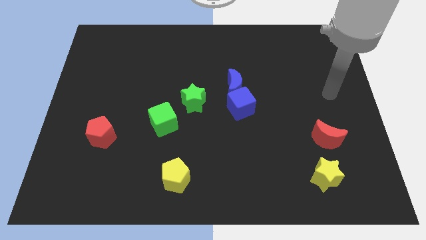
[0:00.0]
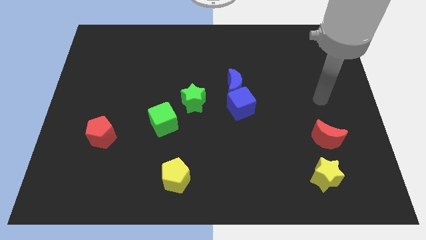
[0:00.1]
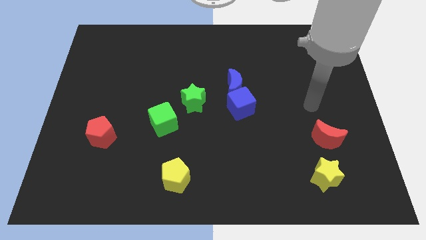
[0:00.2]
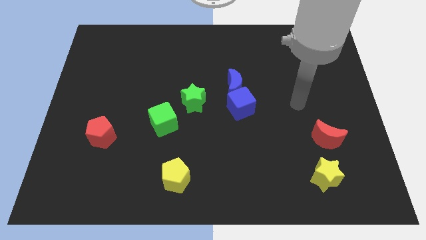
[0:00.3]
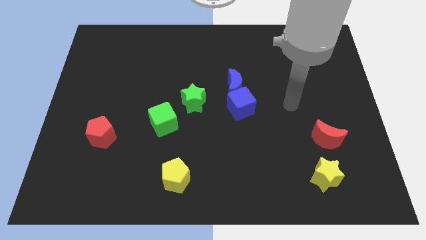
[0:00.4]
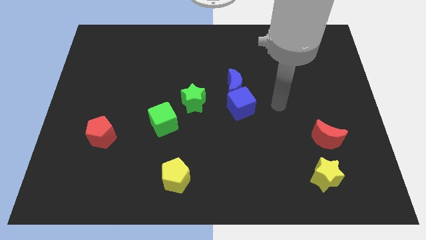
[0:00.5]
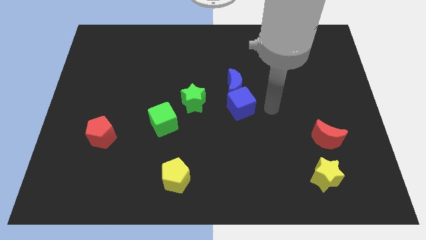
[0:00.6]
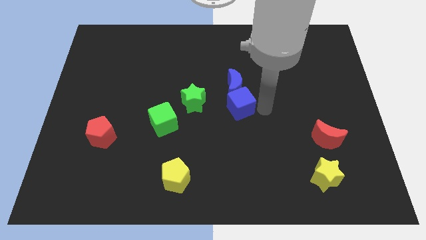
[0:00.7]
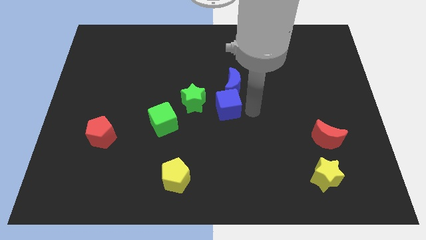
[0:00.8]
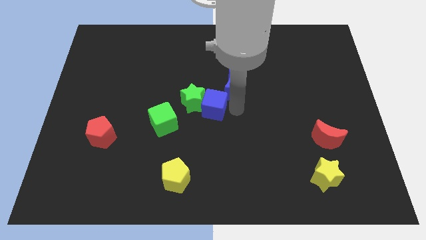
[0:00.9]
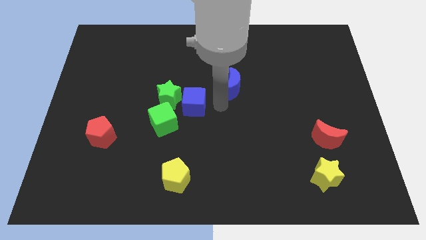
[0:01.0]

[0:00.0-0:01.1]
pull the blue moon apart from the blue cube

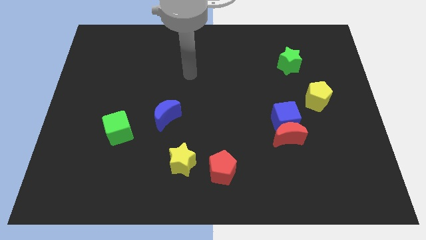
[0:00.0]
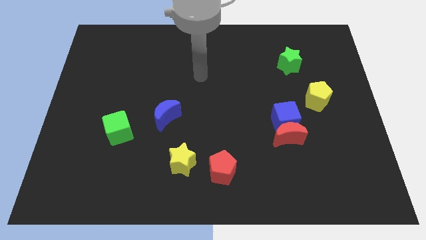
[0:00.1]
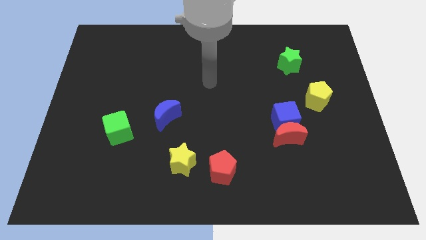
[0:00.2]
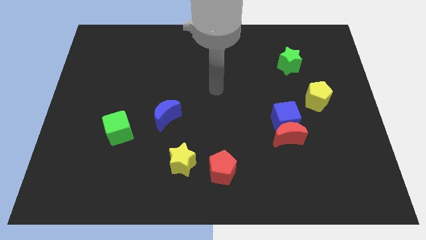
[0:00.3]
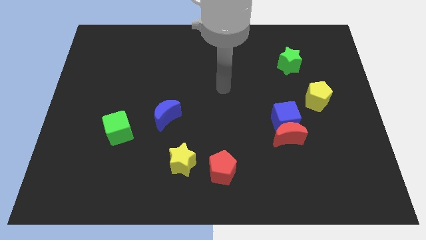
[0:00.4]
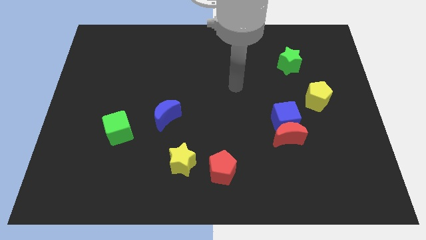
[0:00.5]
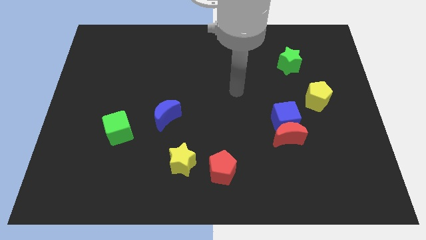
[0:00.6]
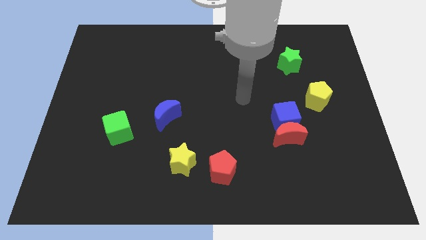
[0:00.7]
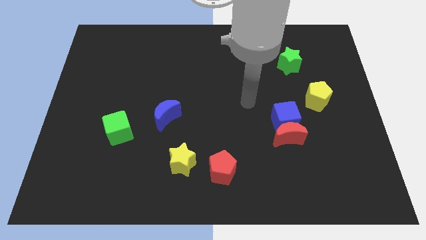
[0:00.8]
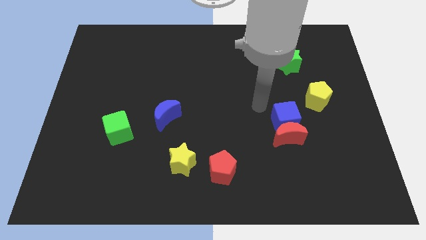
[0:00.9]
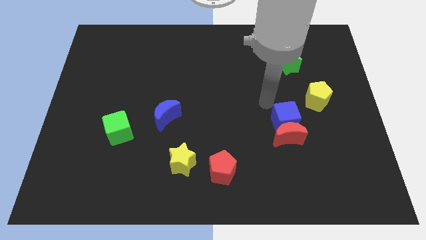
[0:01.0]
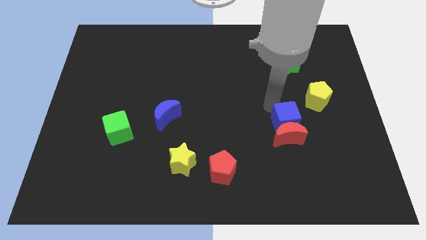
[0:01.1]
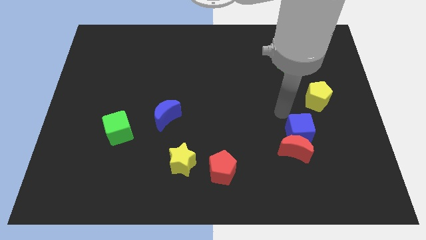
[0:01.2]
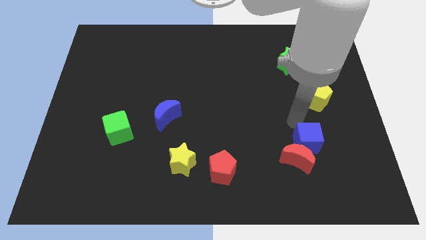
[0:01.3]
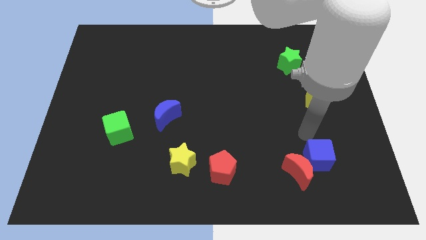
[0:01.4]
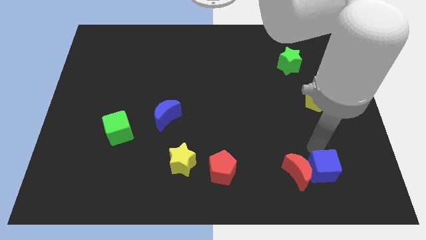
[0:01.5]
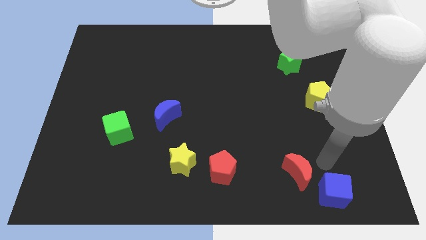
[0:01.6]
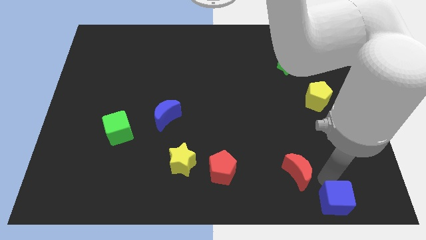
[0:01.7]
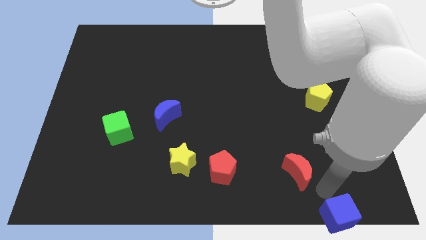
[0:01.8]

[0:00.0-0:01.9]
pull the red moon apart from the blue cube

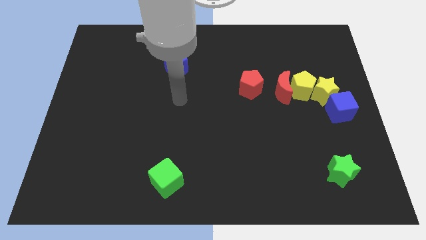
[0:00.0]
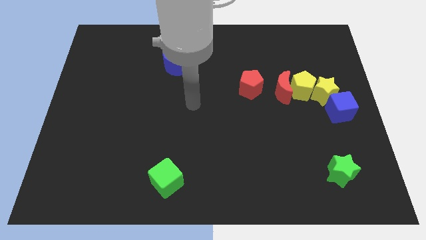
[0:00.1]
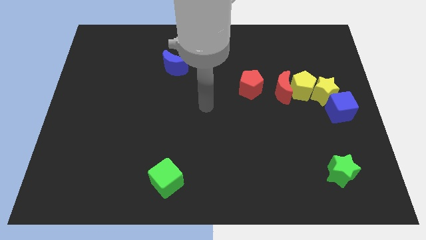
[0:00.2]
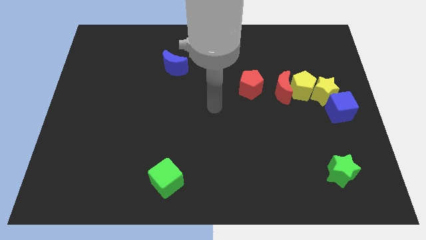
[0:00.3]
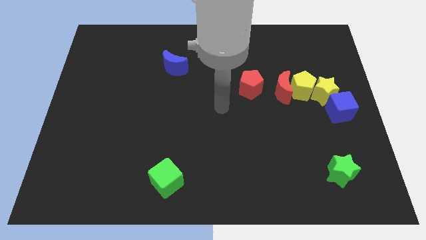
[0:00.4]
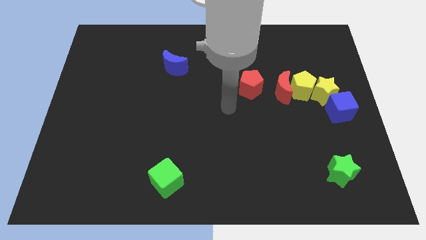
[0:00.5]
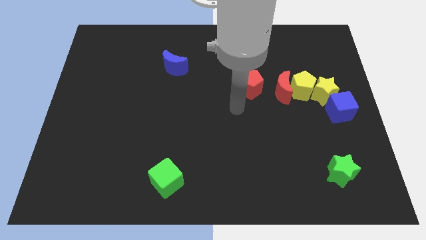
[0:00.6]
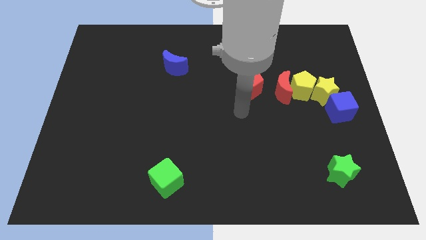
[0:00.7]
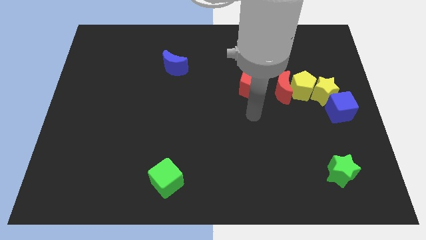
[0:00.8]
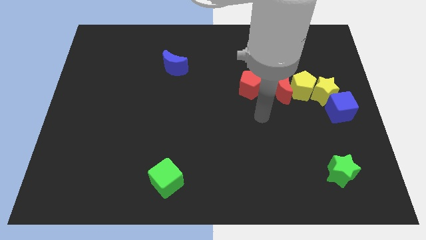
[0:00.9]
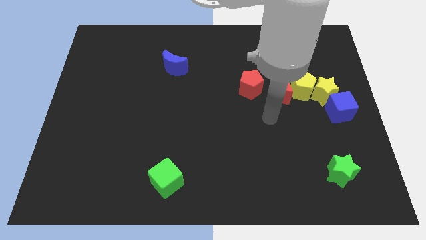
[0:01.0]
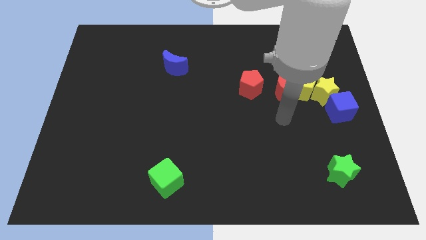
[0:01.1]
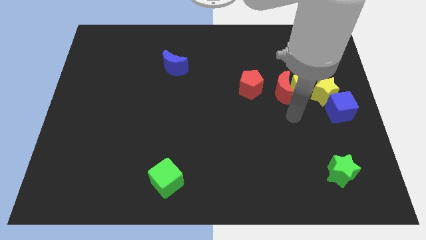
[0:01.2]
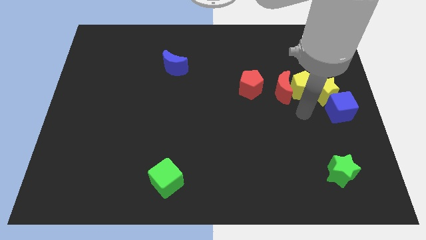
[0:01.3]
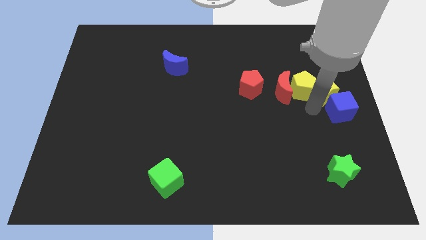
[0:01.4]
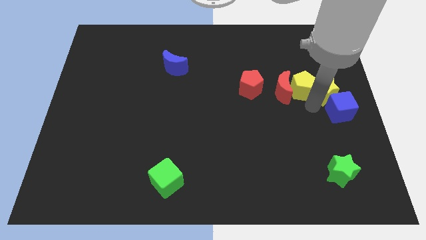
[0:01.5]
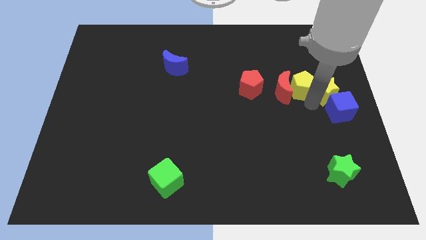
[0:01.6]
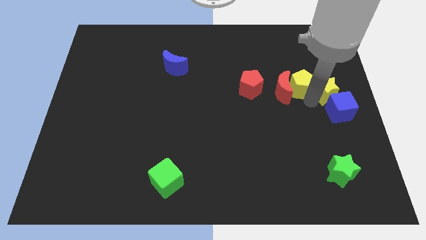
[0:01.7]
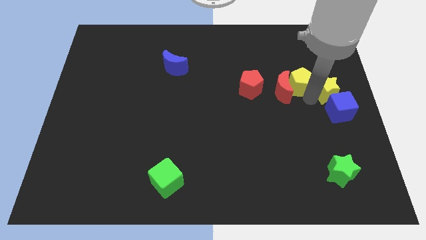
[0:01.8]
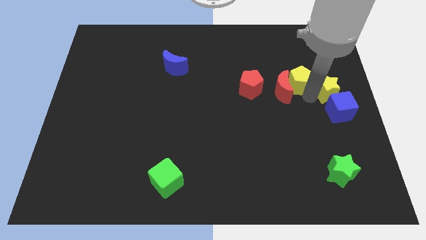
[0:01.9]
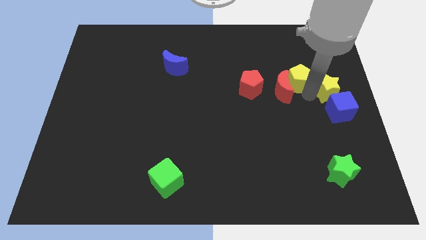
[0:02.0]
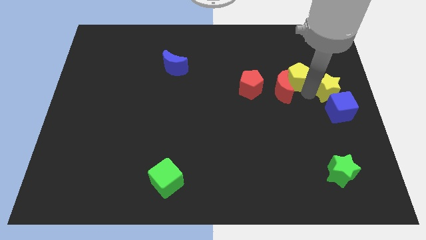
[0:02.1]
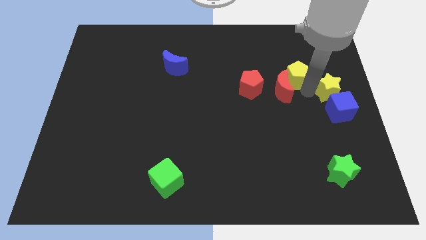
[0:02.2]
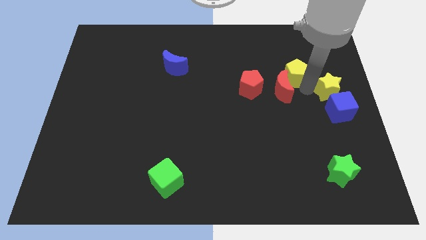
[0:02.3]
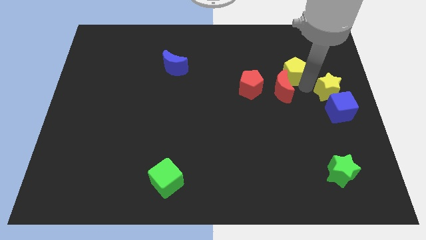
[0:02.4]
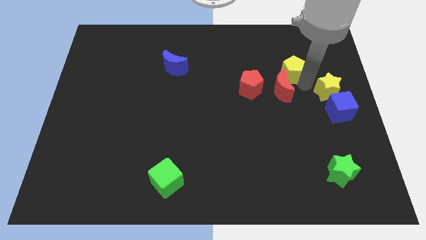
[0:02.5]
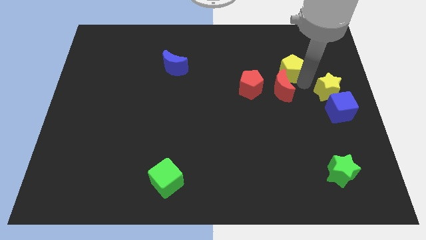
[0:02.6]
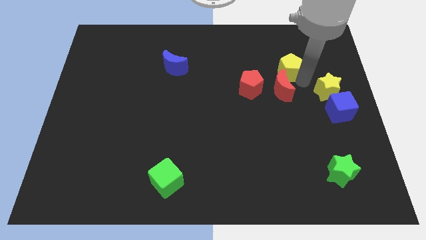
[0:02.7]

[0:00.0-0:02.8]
pull the yellow pentagon apart from the group of blocks

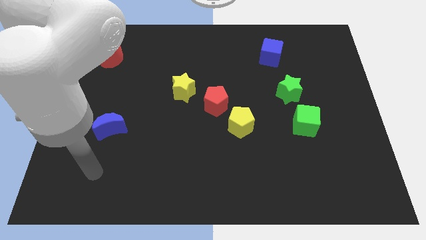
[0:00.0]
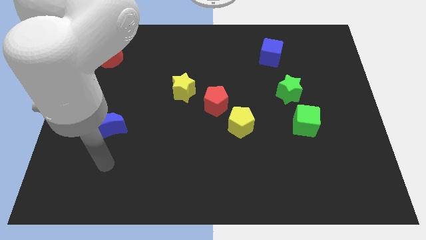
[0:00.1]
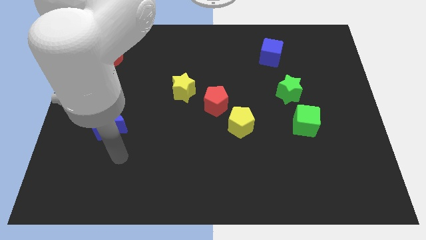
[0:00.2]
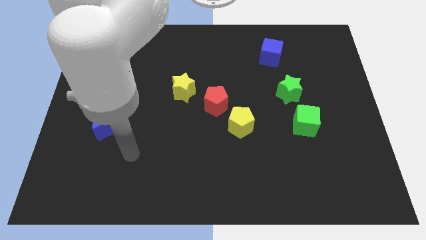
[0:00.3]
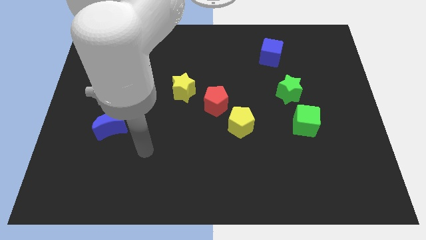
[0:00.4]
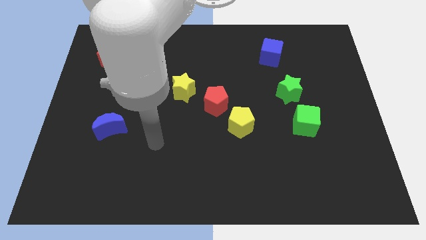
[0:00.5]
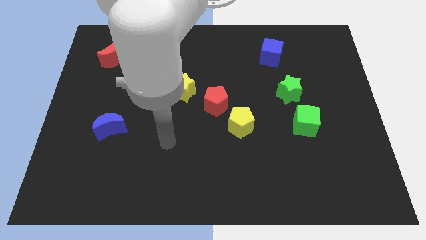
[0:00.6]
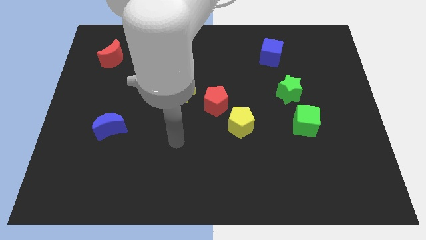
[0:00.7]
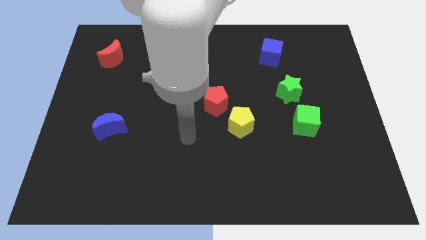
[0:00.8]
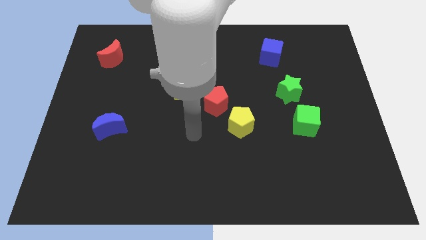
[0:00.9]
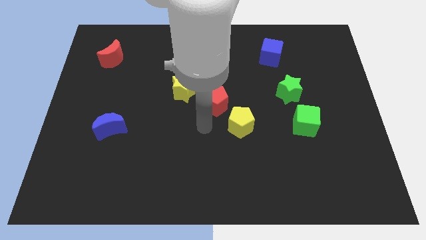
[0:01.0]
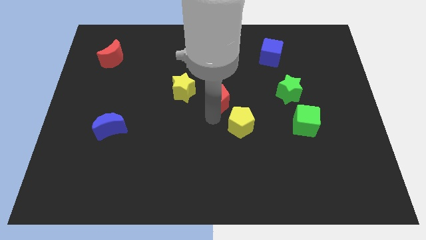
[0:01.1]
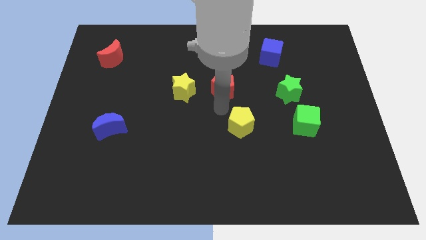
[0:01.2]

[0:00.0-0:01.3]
pull the yellow pentagon apart from the red pentagon

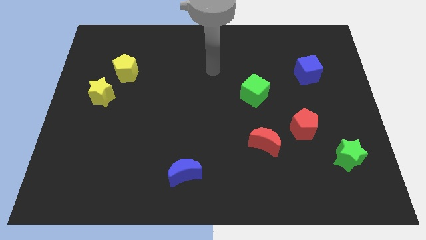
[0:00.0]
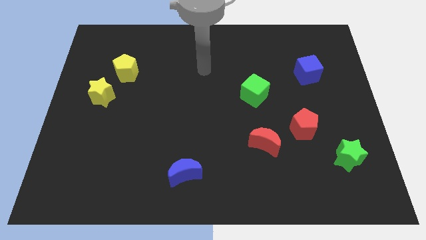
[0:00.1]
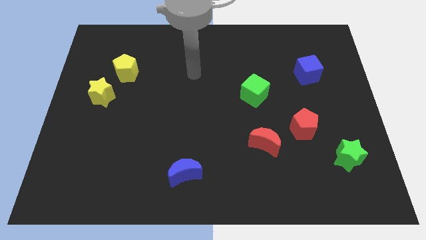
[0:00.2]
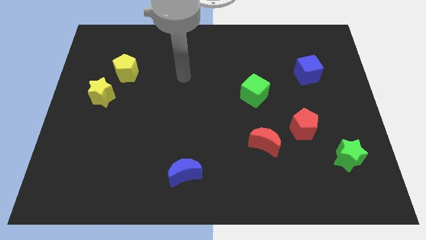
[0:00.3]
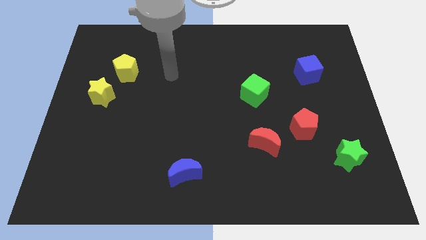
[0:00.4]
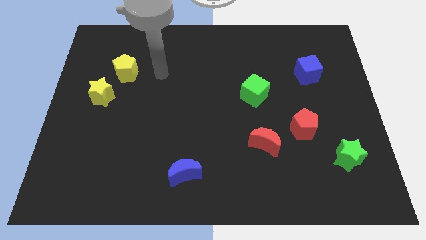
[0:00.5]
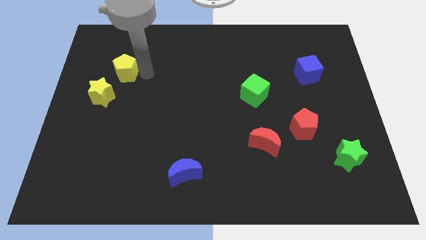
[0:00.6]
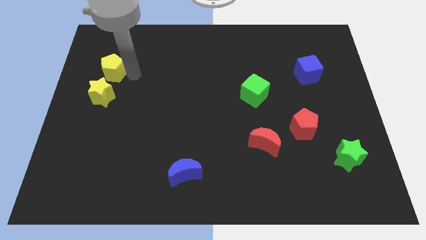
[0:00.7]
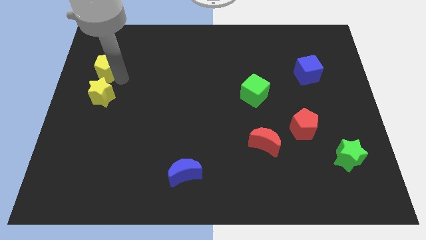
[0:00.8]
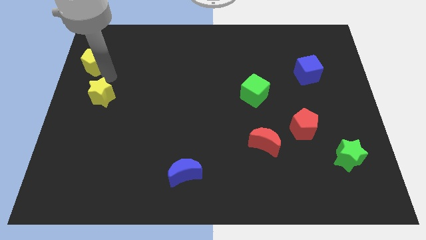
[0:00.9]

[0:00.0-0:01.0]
pull the yellow star apart from the yellow pentagon

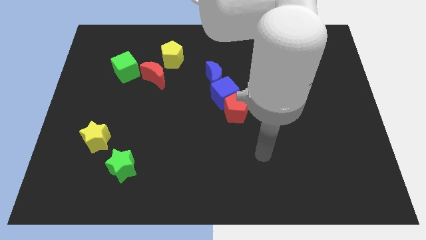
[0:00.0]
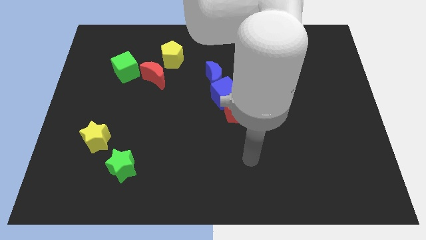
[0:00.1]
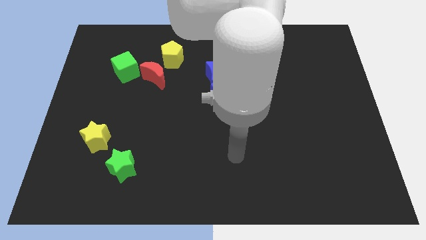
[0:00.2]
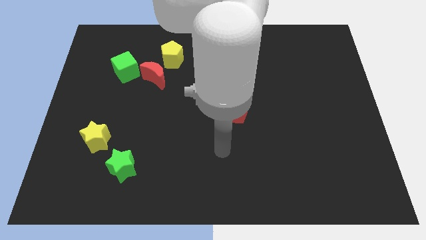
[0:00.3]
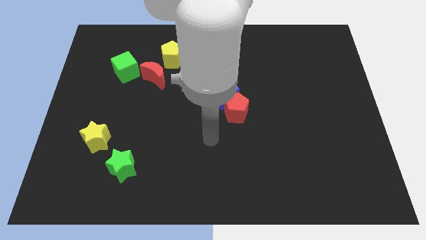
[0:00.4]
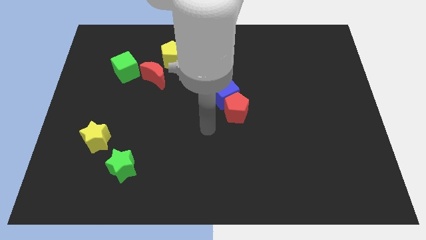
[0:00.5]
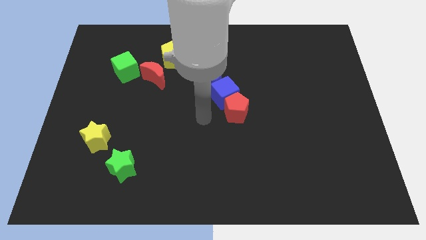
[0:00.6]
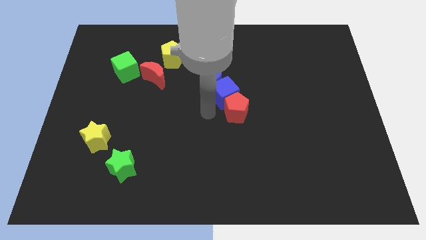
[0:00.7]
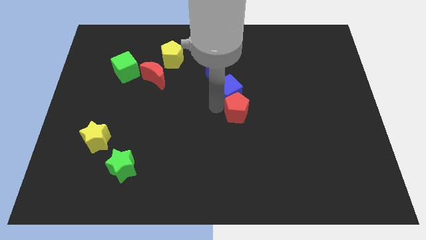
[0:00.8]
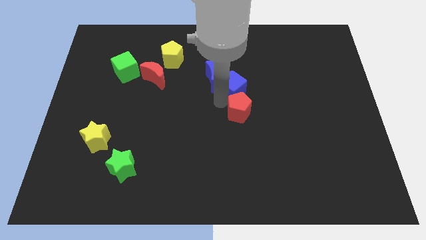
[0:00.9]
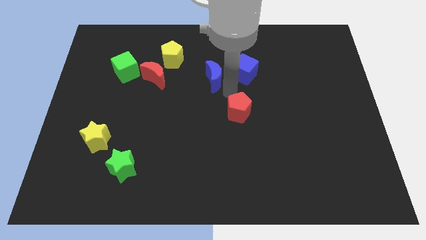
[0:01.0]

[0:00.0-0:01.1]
move the red pentagon away from the blue cube
